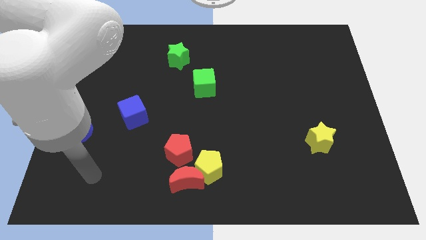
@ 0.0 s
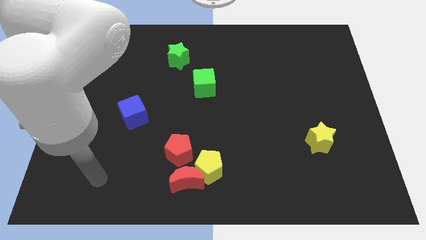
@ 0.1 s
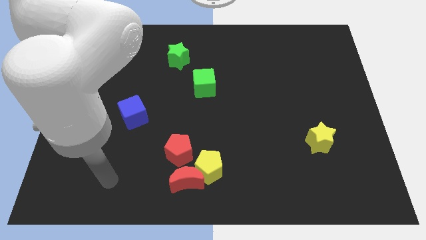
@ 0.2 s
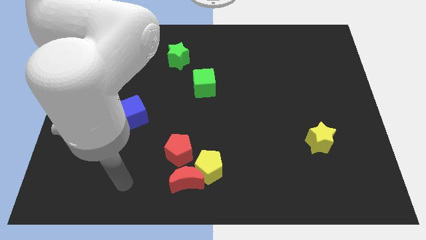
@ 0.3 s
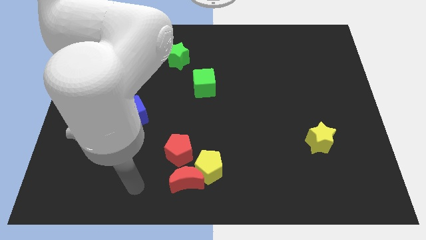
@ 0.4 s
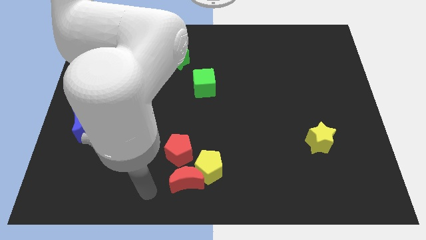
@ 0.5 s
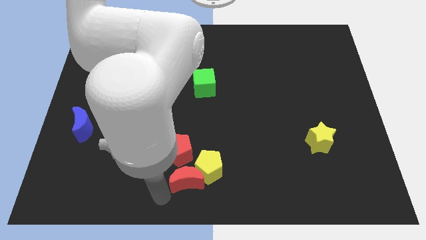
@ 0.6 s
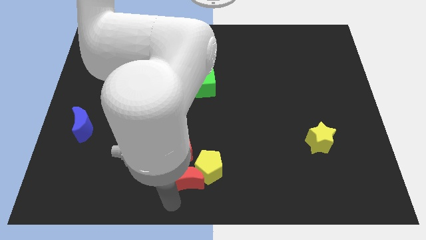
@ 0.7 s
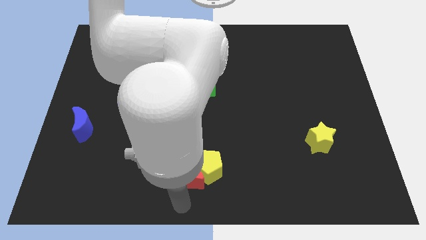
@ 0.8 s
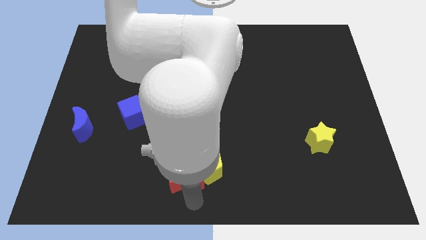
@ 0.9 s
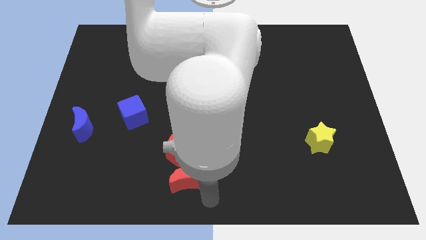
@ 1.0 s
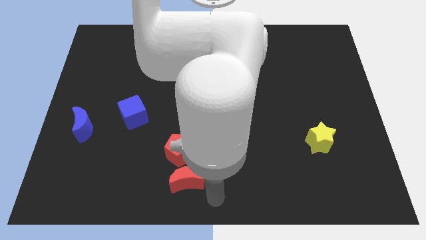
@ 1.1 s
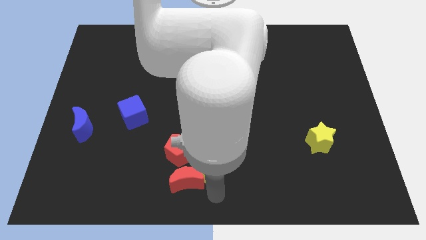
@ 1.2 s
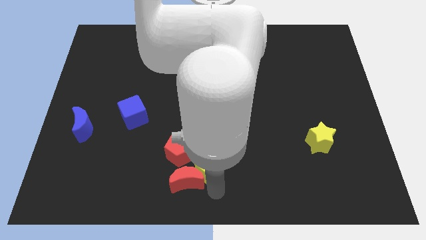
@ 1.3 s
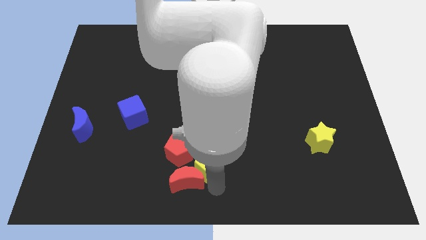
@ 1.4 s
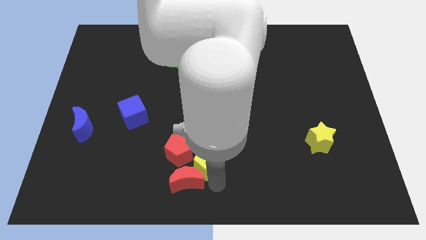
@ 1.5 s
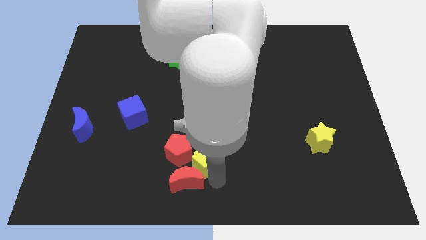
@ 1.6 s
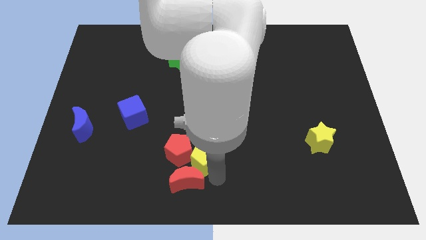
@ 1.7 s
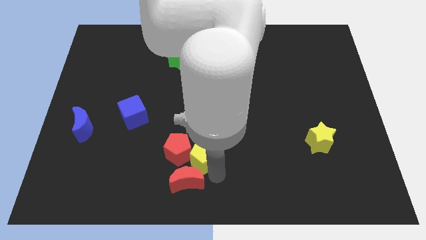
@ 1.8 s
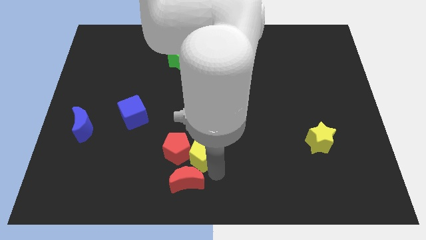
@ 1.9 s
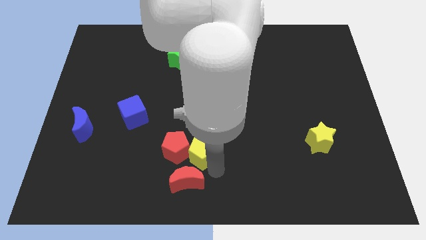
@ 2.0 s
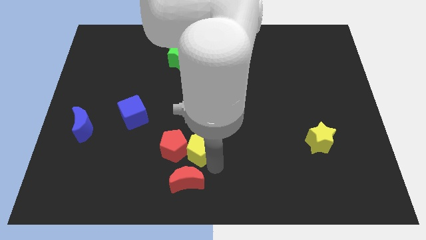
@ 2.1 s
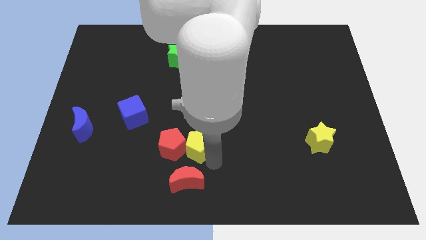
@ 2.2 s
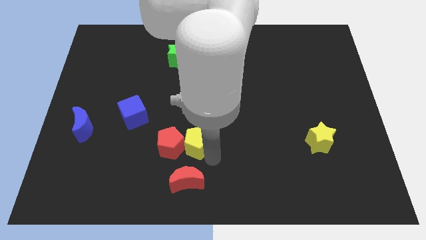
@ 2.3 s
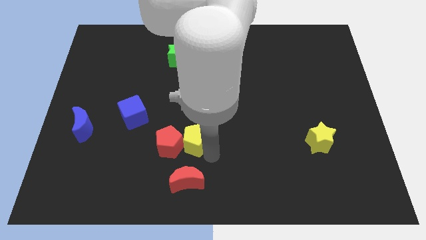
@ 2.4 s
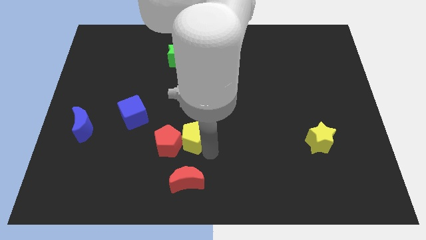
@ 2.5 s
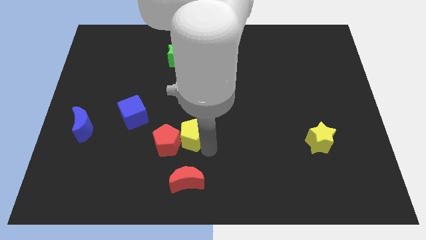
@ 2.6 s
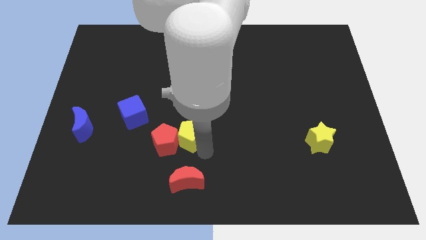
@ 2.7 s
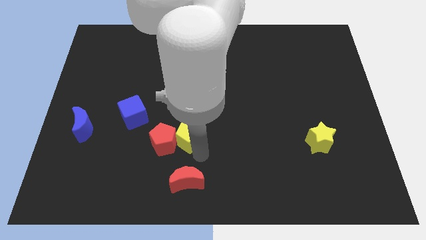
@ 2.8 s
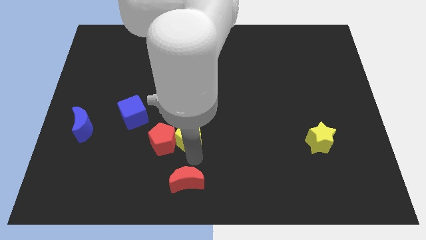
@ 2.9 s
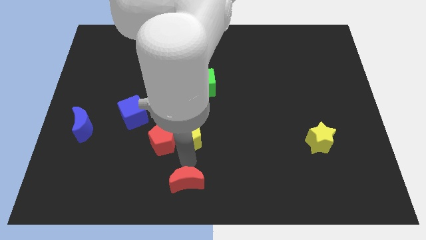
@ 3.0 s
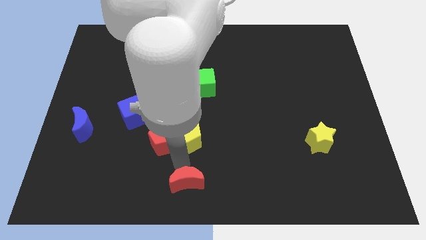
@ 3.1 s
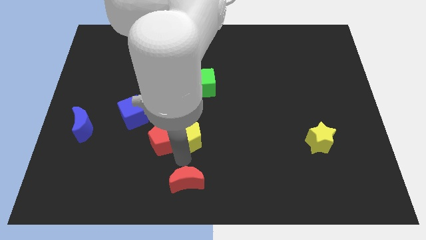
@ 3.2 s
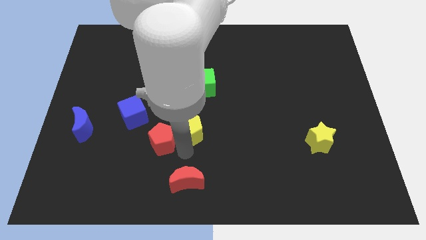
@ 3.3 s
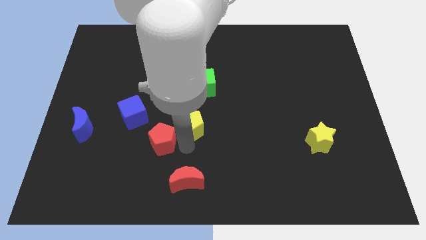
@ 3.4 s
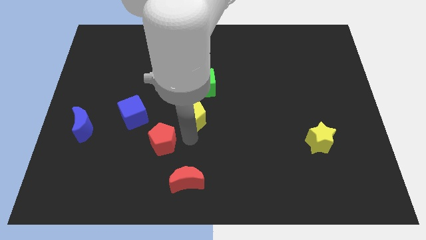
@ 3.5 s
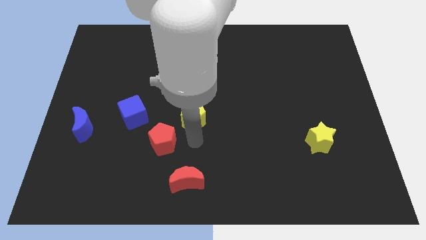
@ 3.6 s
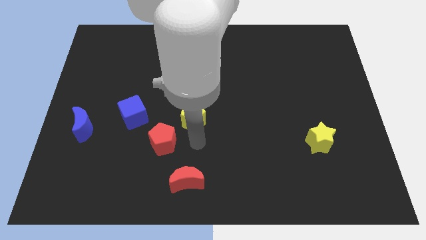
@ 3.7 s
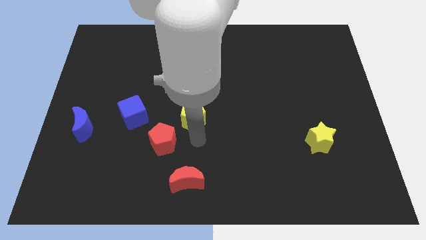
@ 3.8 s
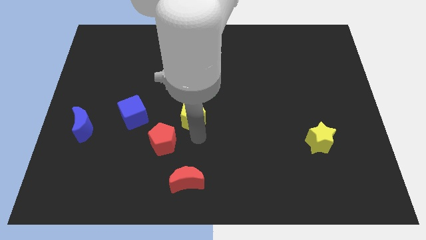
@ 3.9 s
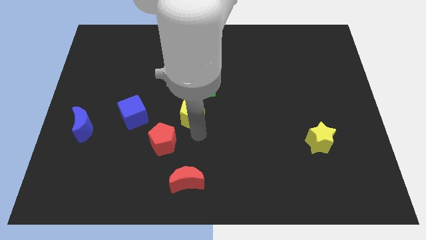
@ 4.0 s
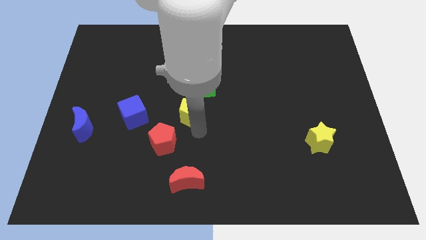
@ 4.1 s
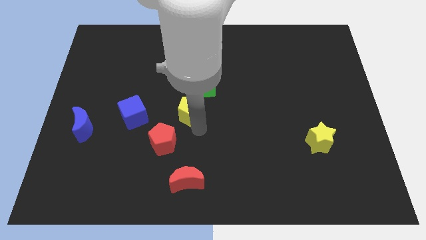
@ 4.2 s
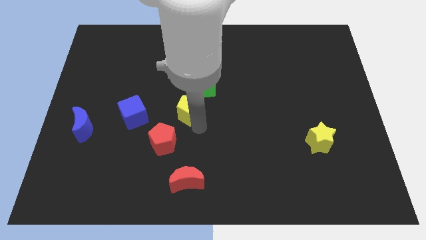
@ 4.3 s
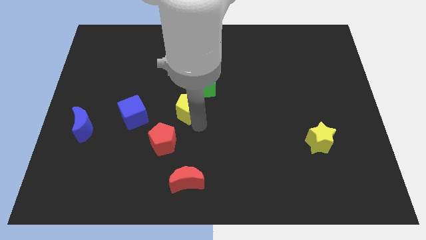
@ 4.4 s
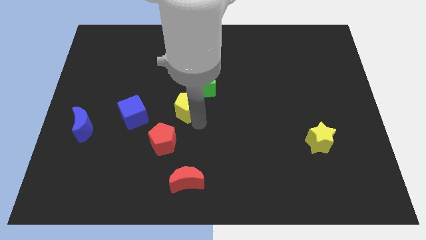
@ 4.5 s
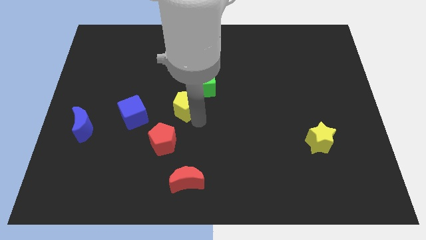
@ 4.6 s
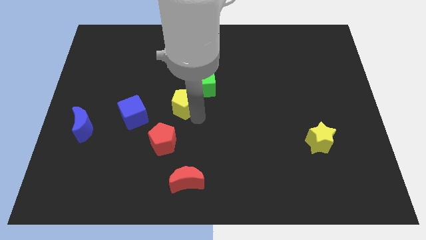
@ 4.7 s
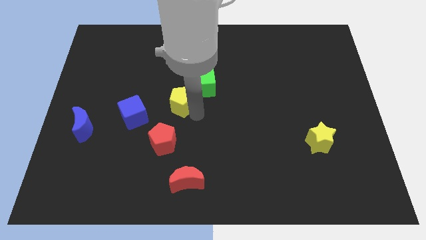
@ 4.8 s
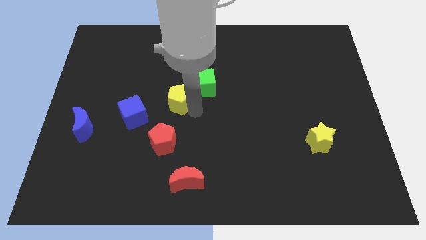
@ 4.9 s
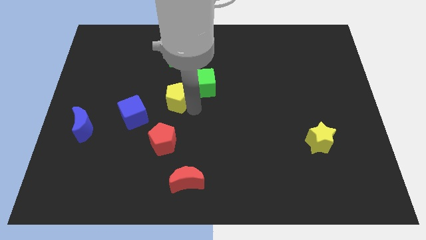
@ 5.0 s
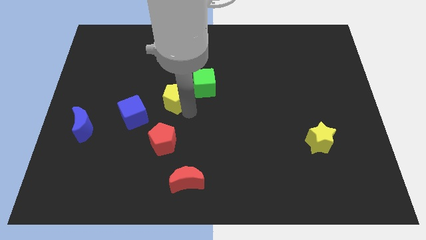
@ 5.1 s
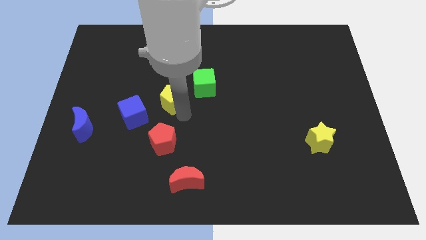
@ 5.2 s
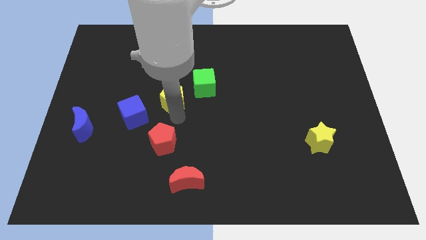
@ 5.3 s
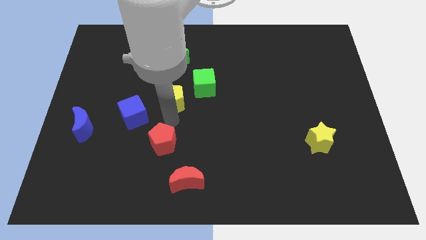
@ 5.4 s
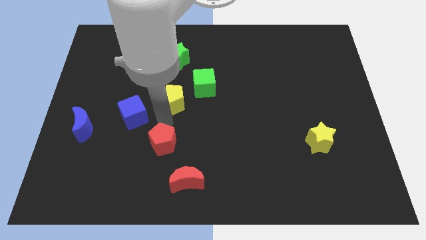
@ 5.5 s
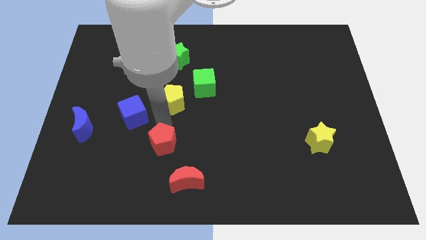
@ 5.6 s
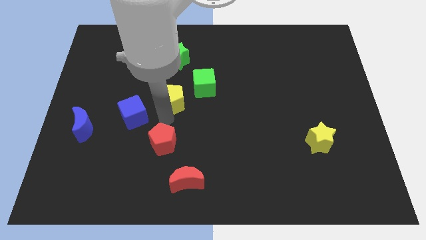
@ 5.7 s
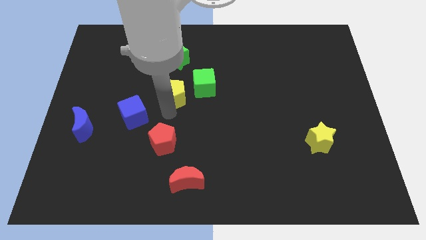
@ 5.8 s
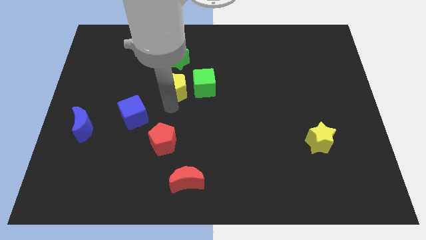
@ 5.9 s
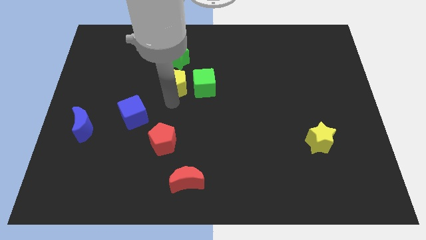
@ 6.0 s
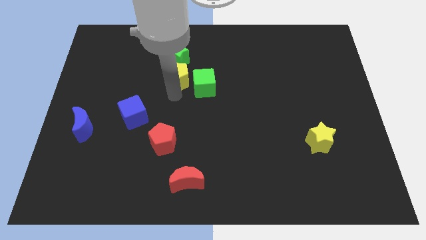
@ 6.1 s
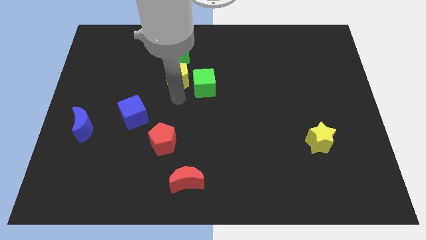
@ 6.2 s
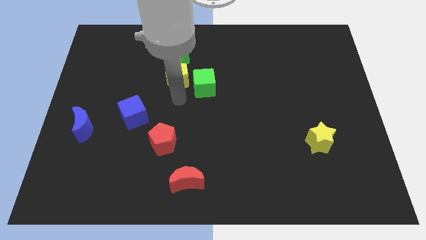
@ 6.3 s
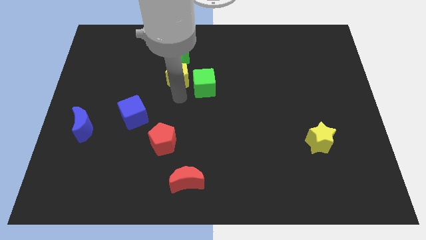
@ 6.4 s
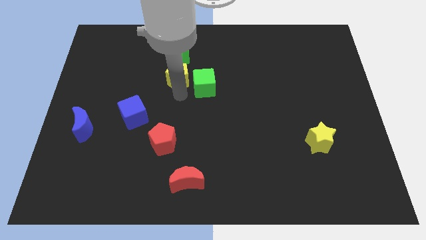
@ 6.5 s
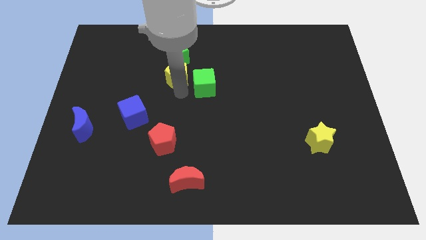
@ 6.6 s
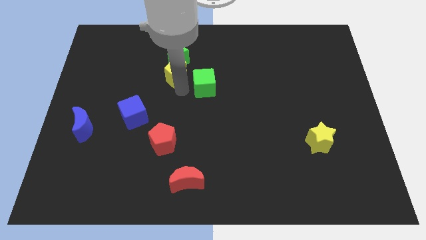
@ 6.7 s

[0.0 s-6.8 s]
push the yellow pentagon next to the green star
